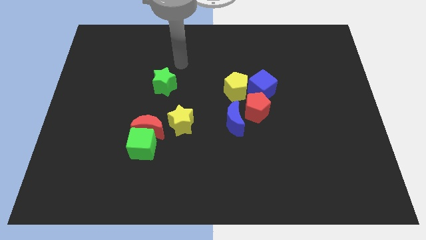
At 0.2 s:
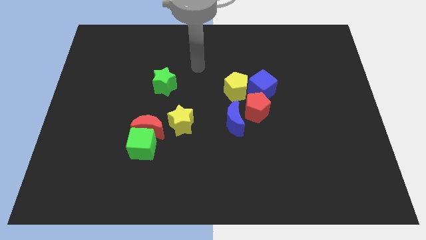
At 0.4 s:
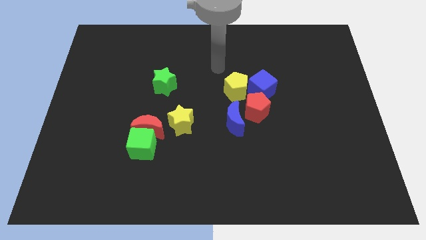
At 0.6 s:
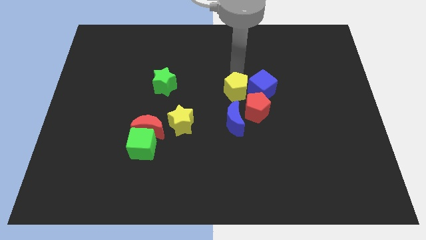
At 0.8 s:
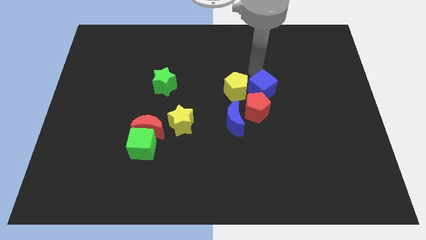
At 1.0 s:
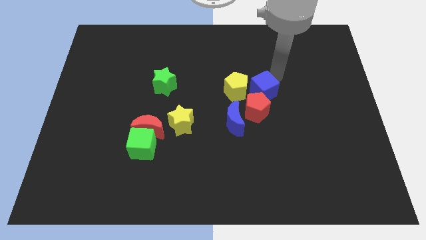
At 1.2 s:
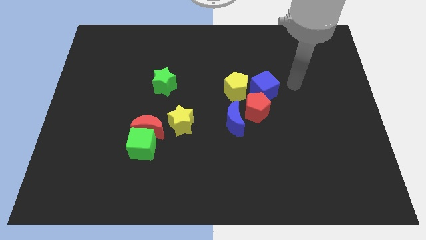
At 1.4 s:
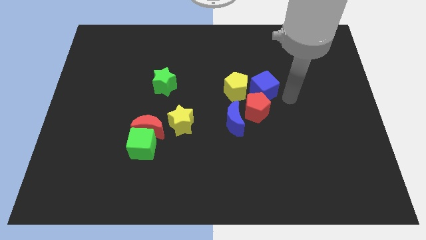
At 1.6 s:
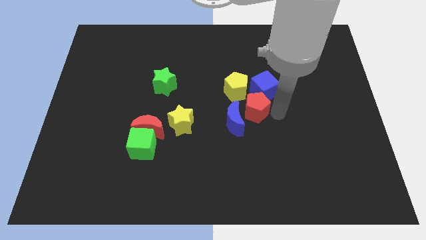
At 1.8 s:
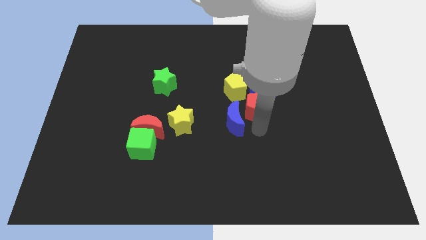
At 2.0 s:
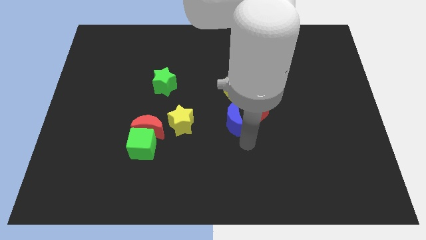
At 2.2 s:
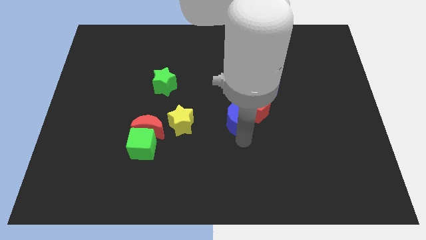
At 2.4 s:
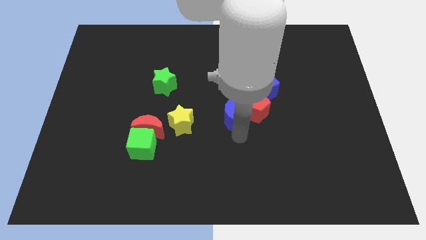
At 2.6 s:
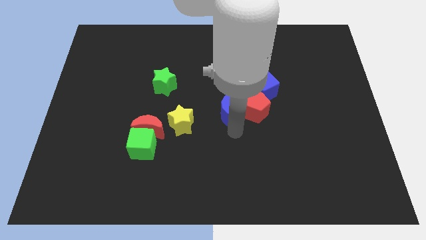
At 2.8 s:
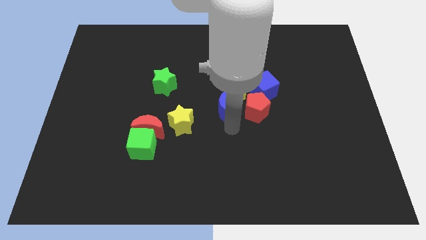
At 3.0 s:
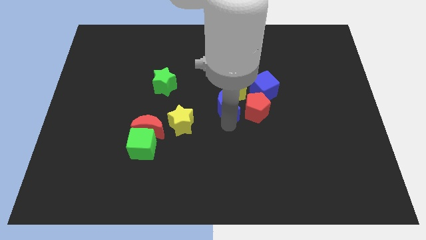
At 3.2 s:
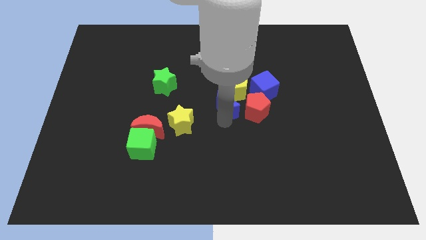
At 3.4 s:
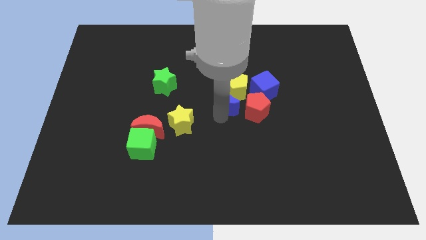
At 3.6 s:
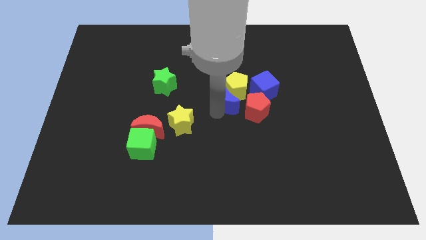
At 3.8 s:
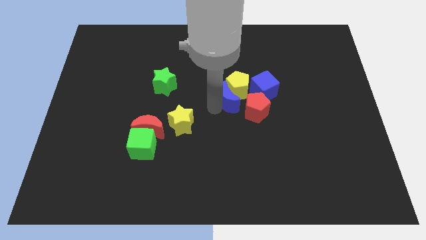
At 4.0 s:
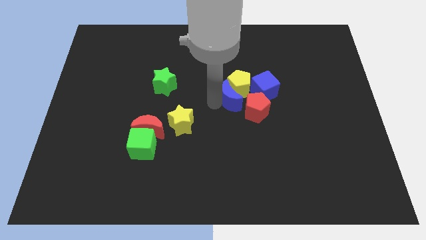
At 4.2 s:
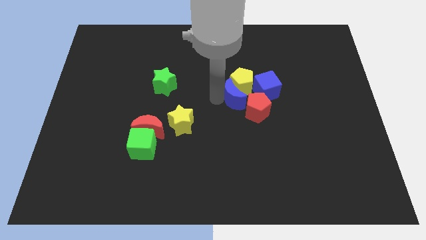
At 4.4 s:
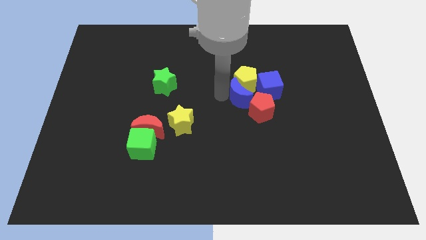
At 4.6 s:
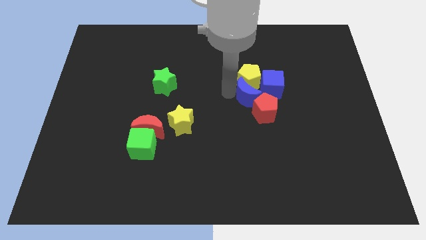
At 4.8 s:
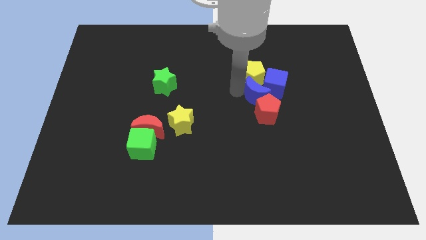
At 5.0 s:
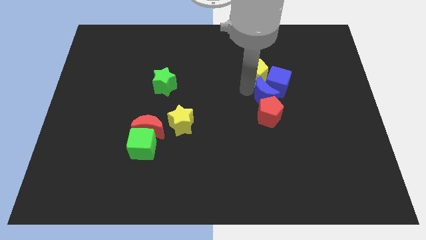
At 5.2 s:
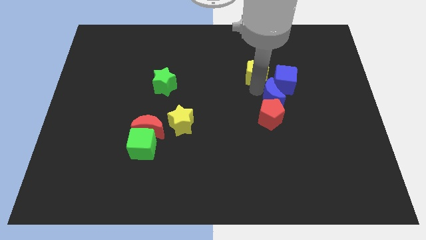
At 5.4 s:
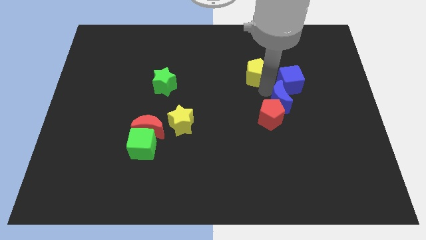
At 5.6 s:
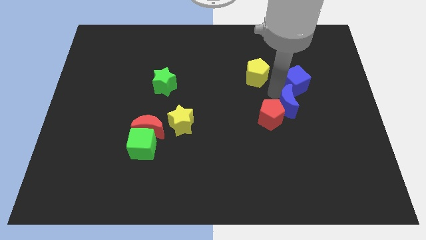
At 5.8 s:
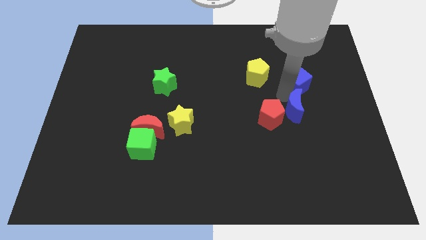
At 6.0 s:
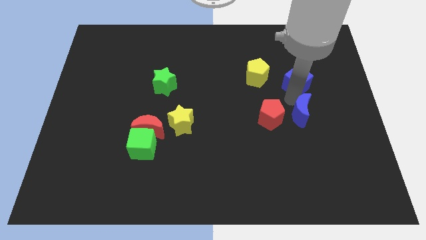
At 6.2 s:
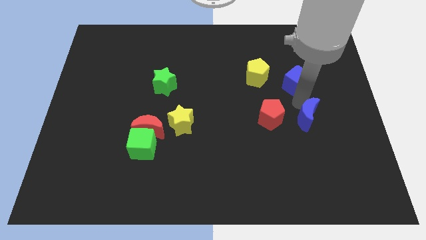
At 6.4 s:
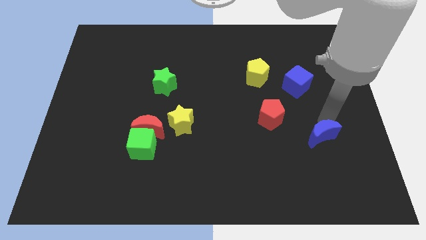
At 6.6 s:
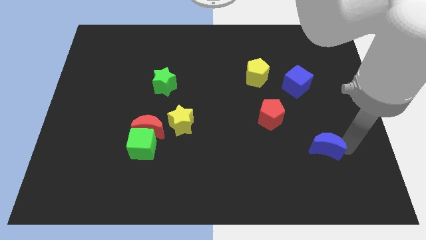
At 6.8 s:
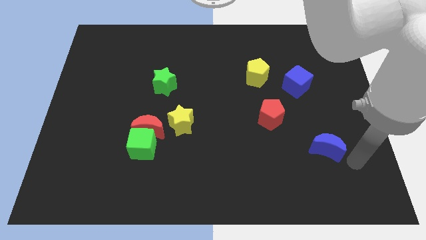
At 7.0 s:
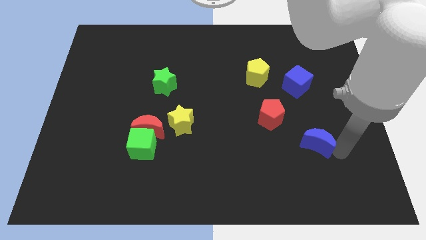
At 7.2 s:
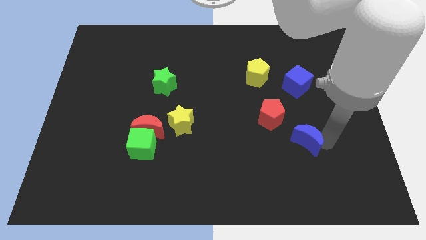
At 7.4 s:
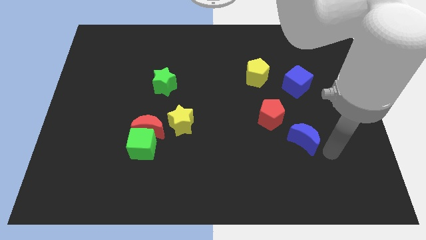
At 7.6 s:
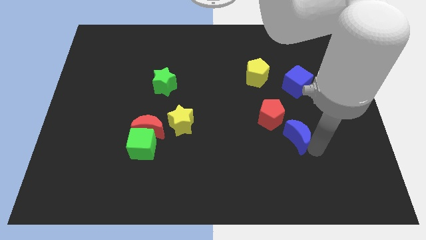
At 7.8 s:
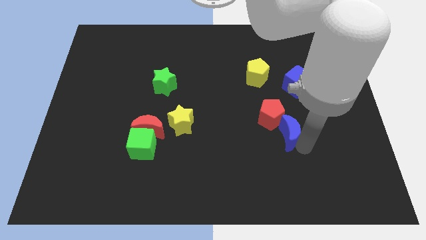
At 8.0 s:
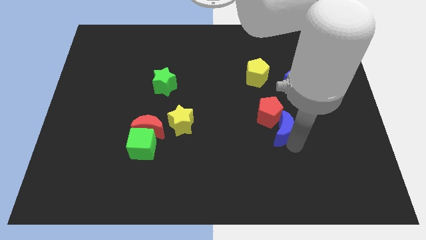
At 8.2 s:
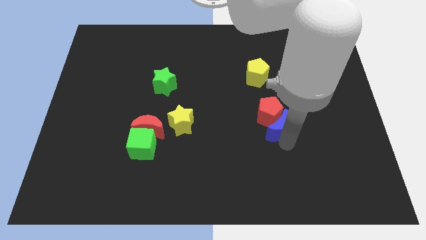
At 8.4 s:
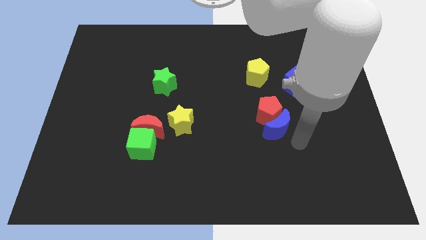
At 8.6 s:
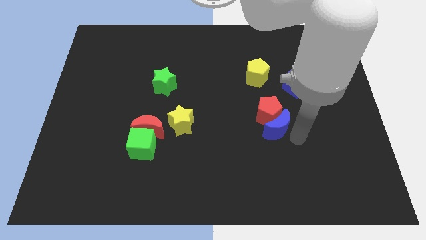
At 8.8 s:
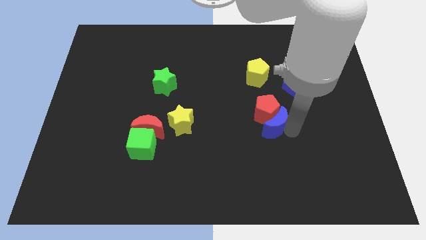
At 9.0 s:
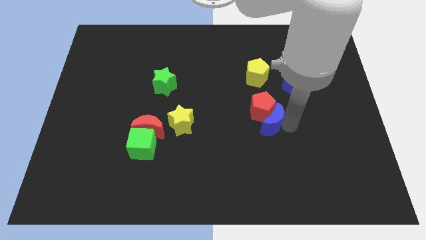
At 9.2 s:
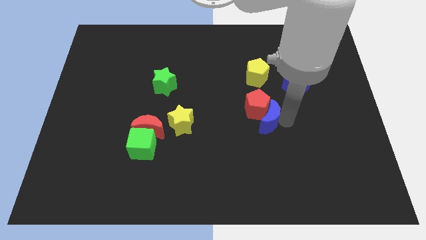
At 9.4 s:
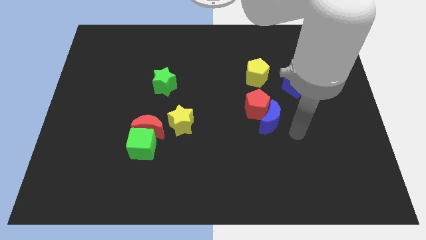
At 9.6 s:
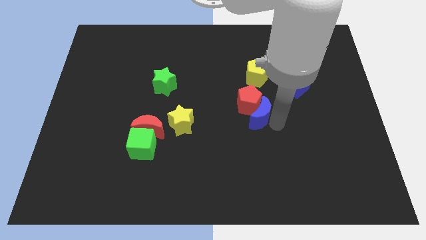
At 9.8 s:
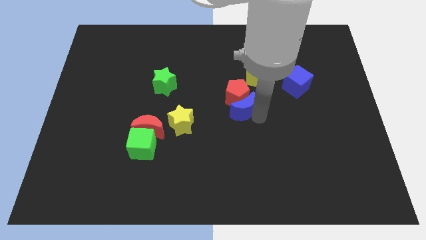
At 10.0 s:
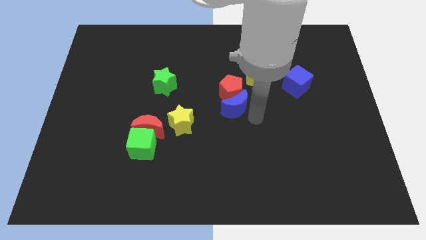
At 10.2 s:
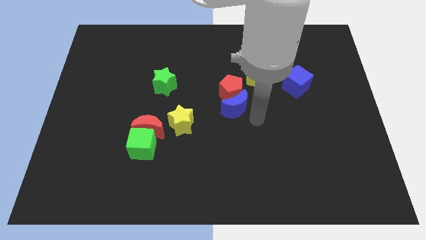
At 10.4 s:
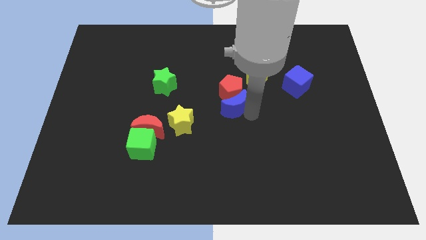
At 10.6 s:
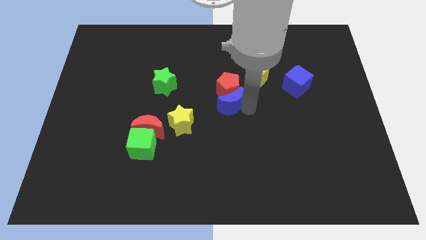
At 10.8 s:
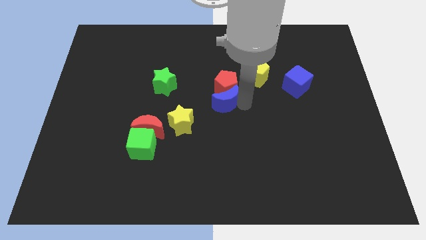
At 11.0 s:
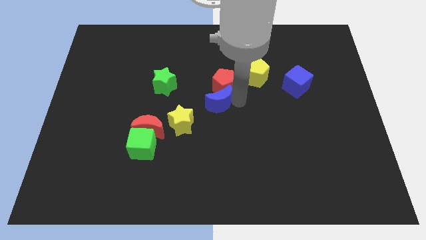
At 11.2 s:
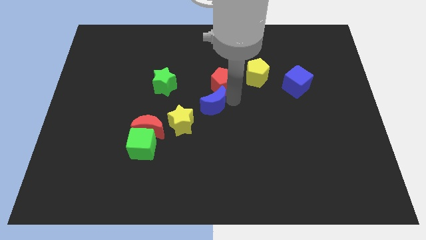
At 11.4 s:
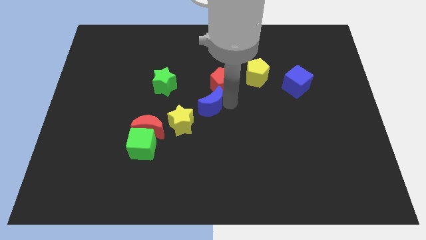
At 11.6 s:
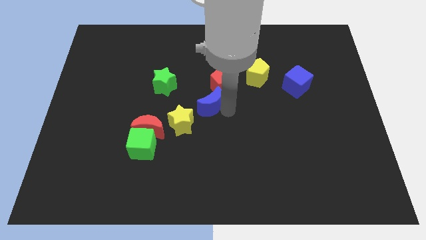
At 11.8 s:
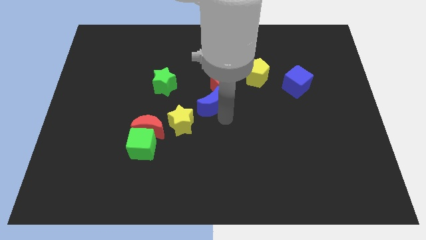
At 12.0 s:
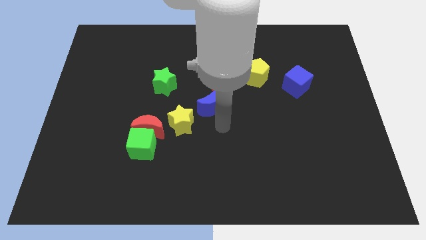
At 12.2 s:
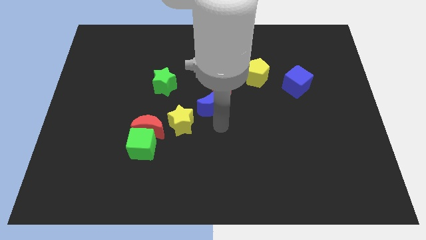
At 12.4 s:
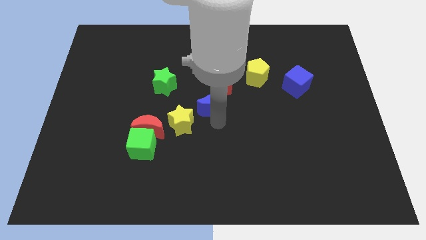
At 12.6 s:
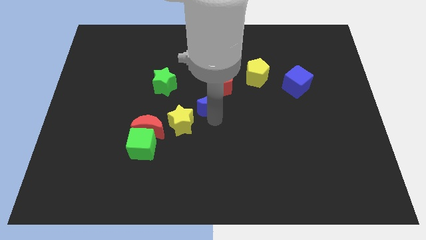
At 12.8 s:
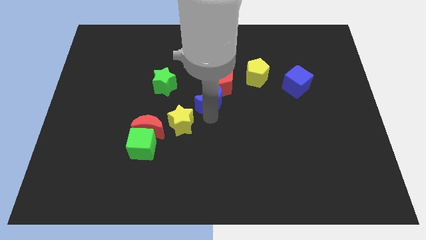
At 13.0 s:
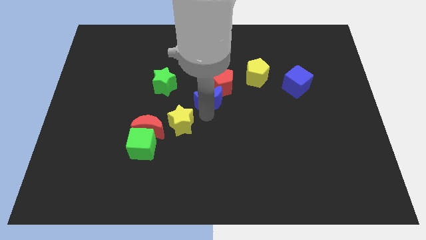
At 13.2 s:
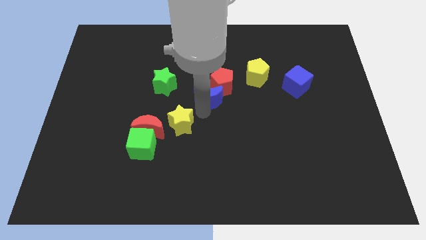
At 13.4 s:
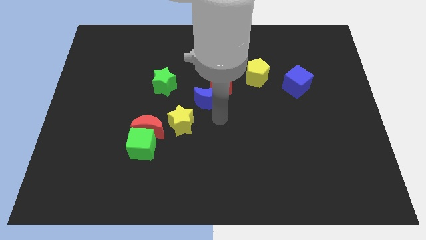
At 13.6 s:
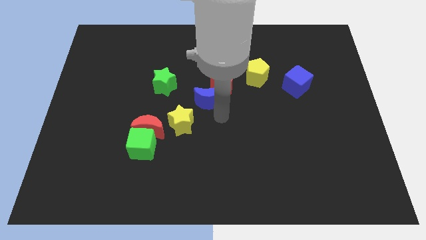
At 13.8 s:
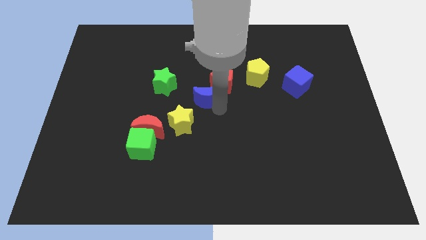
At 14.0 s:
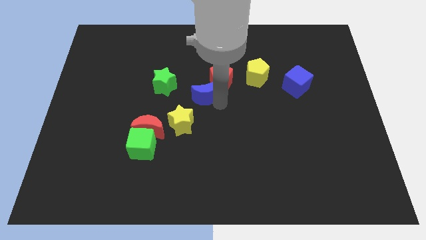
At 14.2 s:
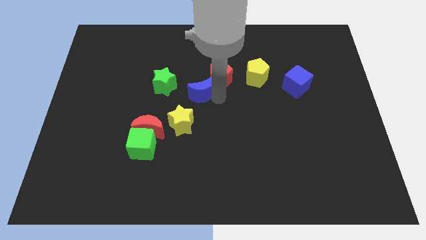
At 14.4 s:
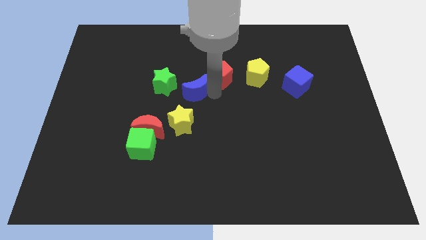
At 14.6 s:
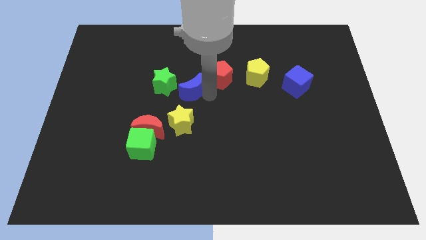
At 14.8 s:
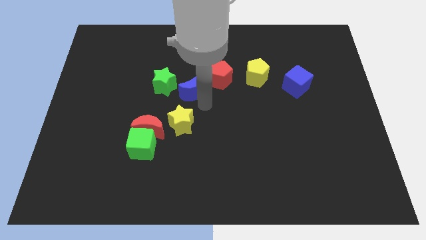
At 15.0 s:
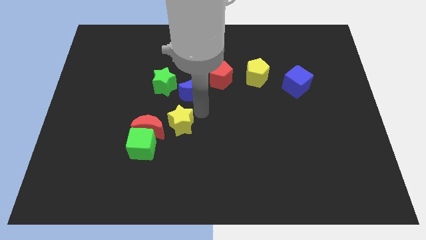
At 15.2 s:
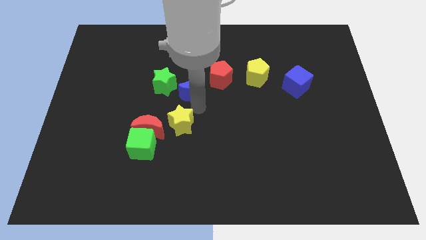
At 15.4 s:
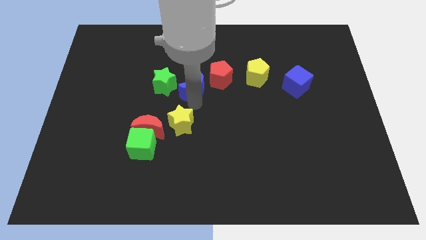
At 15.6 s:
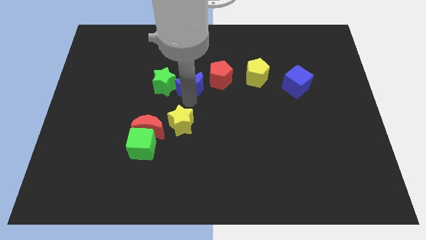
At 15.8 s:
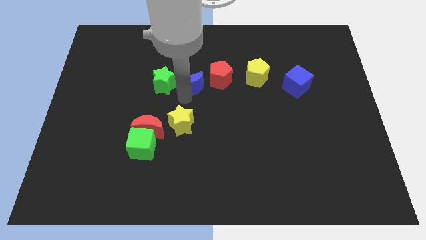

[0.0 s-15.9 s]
move the blue moon to the top right side of the green star
